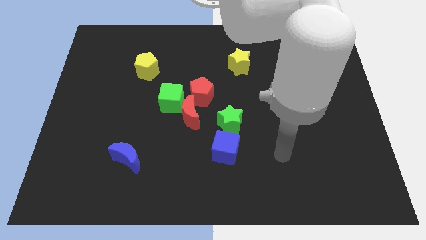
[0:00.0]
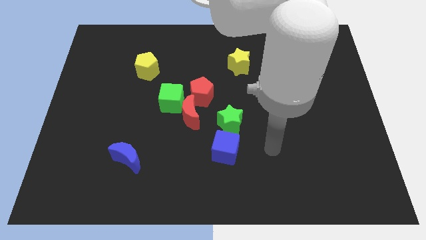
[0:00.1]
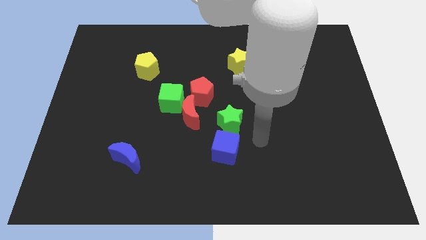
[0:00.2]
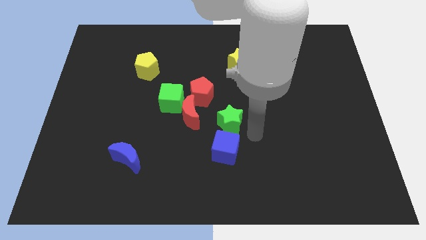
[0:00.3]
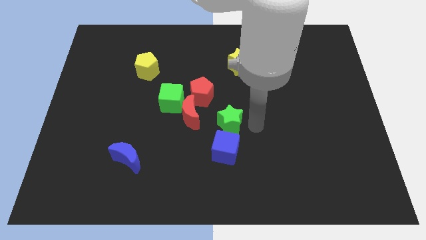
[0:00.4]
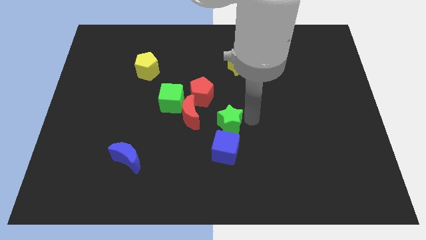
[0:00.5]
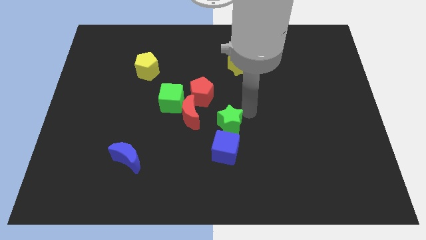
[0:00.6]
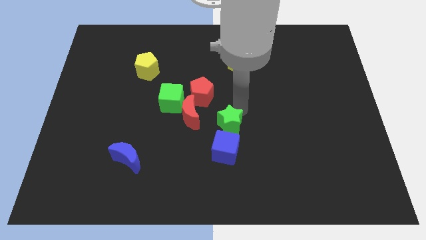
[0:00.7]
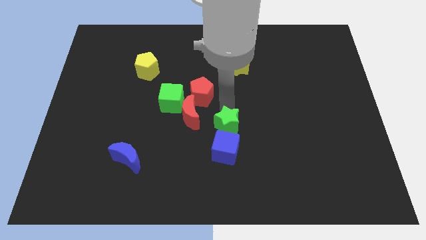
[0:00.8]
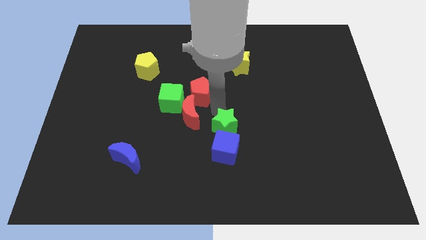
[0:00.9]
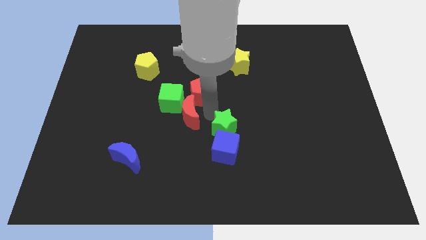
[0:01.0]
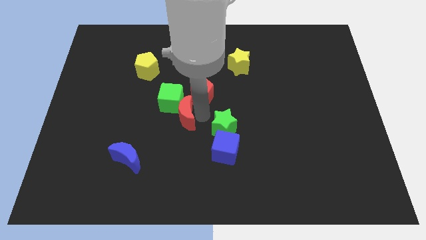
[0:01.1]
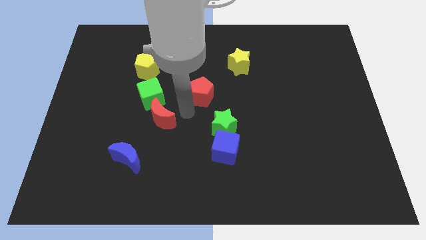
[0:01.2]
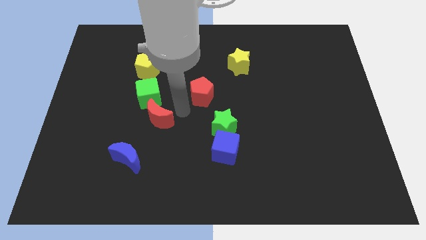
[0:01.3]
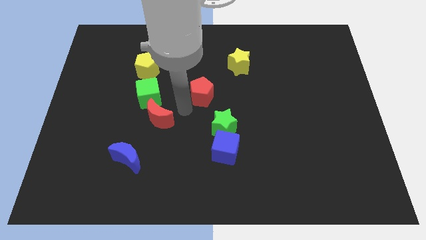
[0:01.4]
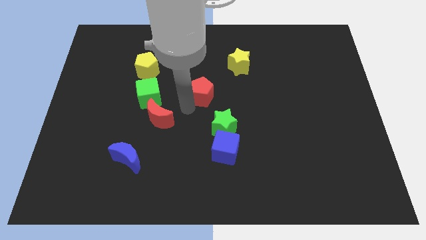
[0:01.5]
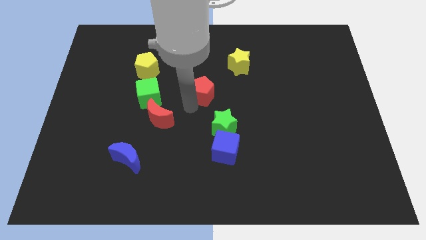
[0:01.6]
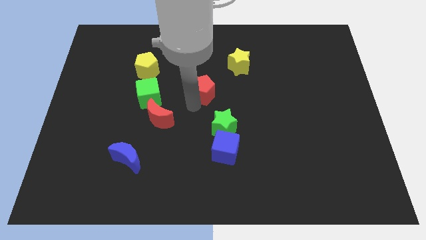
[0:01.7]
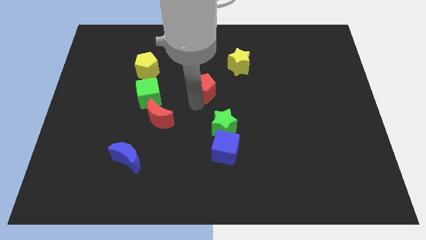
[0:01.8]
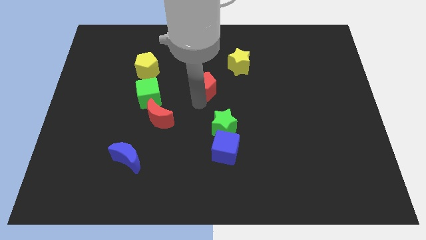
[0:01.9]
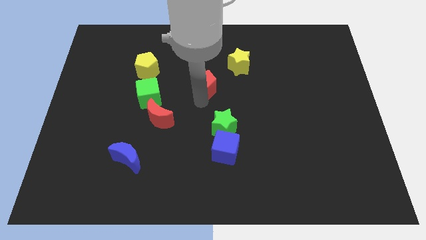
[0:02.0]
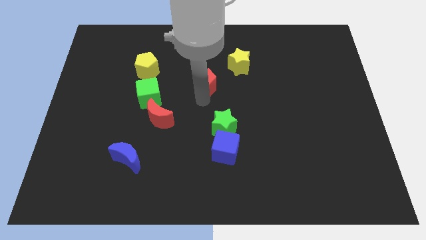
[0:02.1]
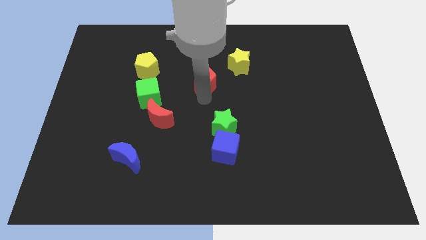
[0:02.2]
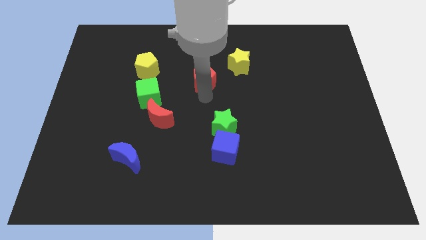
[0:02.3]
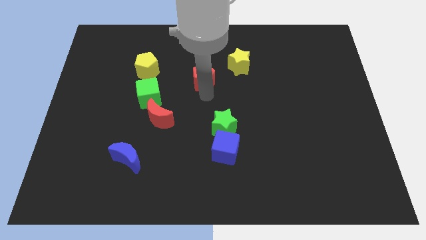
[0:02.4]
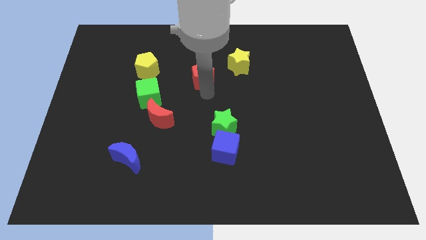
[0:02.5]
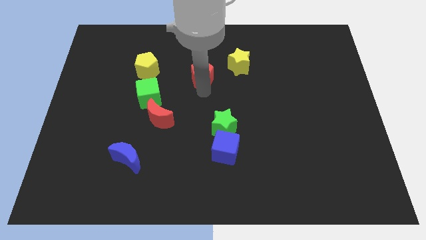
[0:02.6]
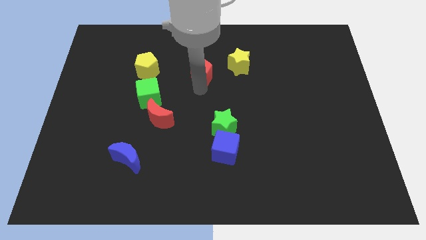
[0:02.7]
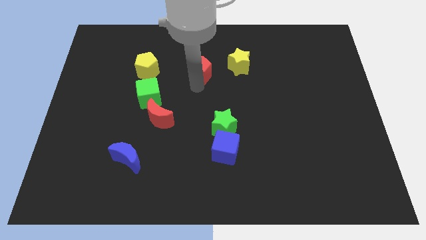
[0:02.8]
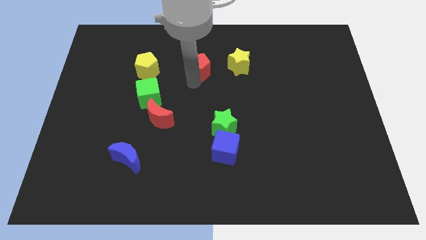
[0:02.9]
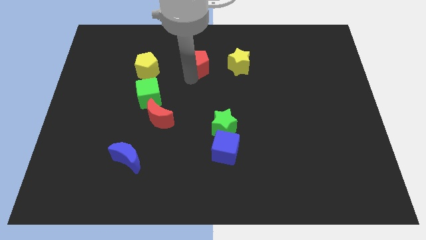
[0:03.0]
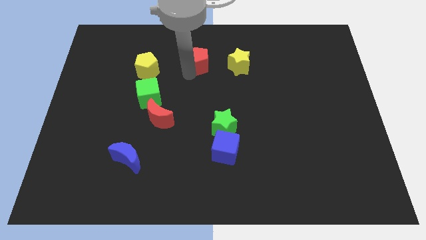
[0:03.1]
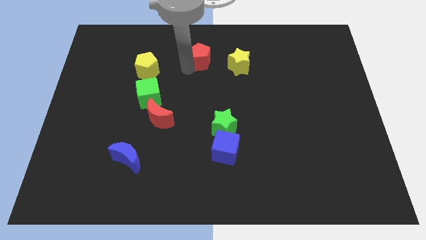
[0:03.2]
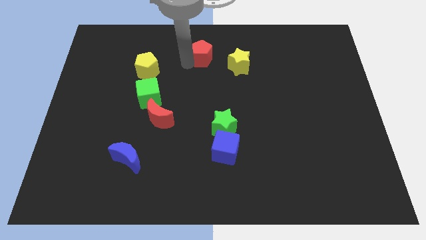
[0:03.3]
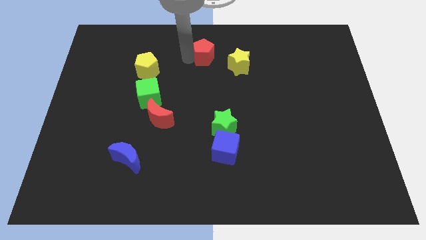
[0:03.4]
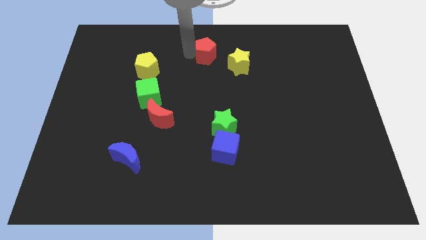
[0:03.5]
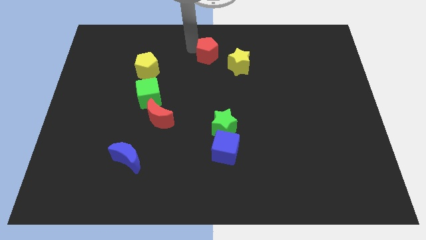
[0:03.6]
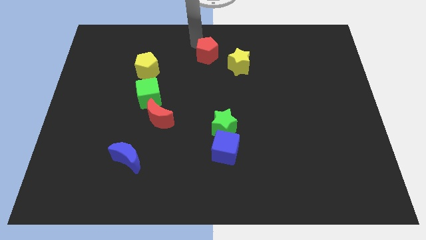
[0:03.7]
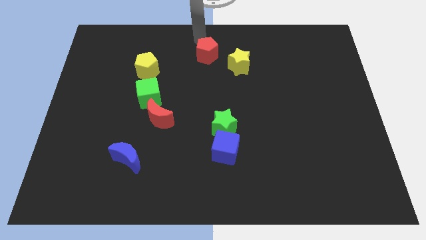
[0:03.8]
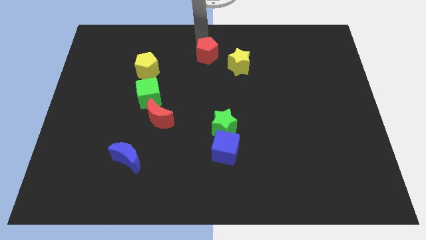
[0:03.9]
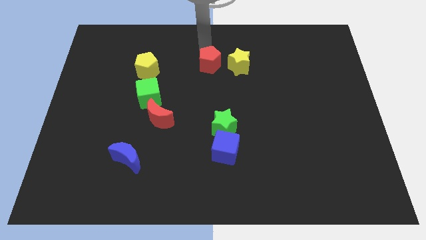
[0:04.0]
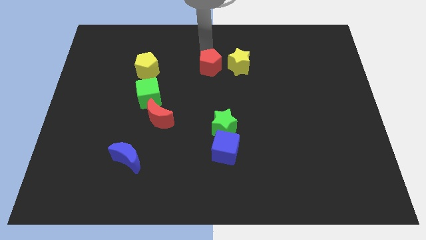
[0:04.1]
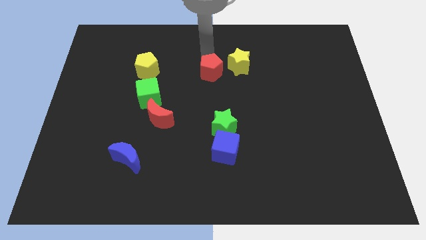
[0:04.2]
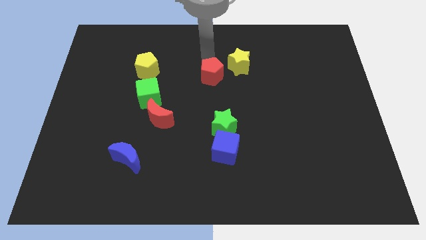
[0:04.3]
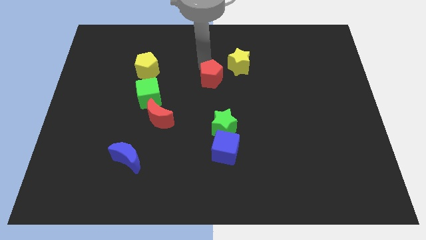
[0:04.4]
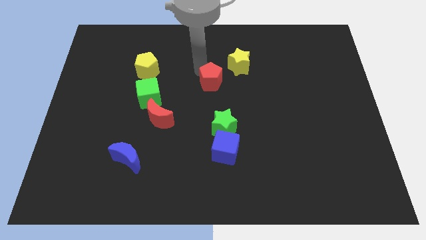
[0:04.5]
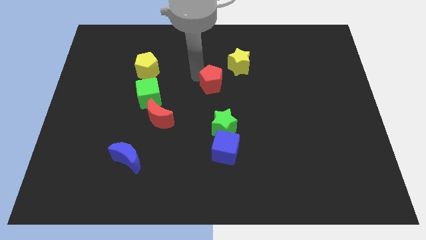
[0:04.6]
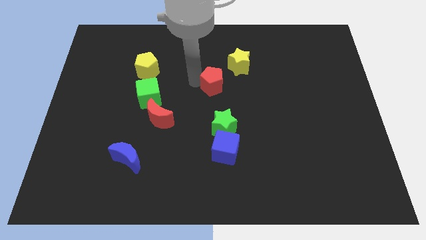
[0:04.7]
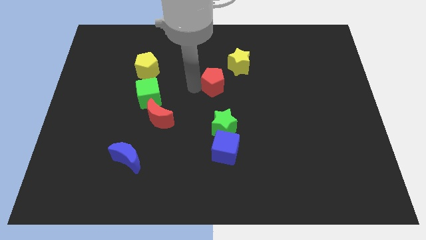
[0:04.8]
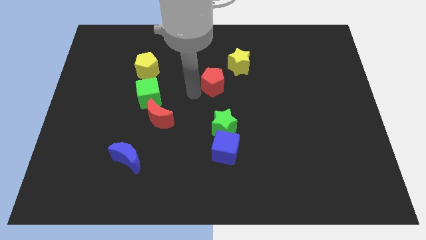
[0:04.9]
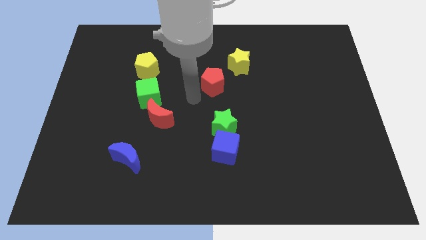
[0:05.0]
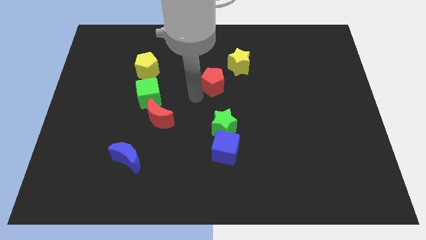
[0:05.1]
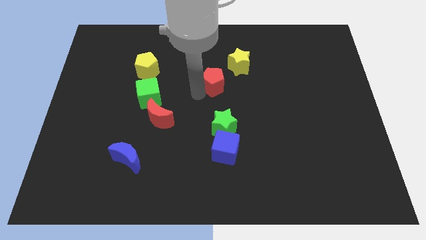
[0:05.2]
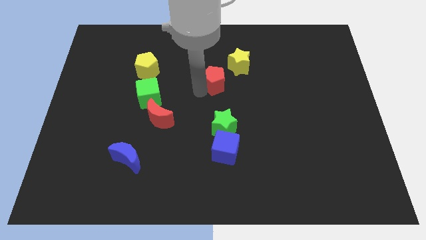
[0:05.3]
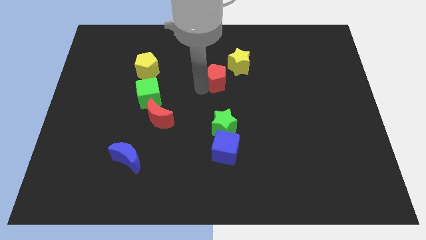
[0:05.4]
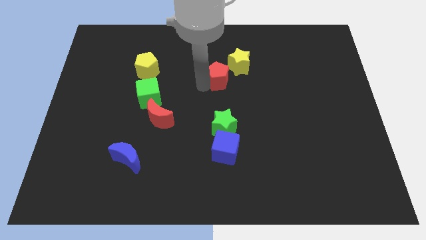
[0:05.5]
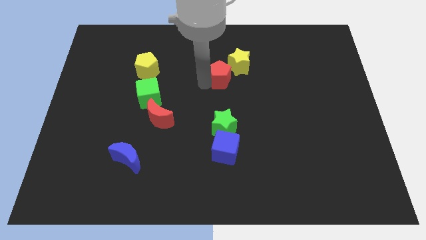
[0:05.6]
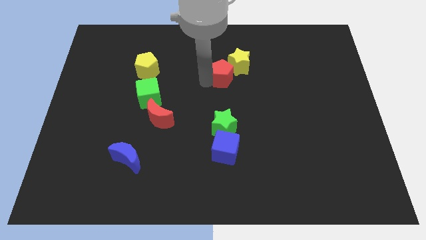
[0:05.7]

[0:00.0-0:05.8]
push the red pentagon towards the yellow star

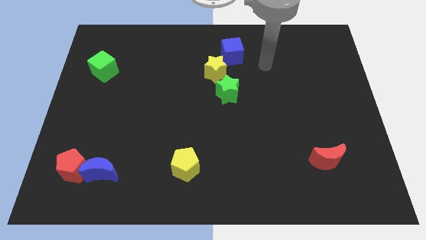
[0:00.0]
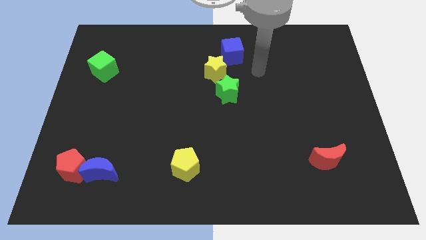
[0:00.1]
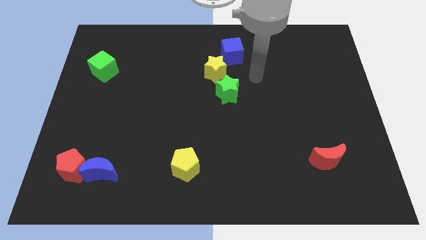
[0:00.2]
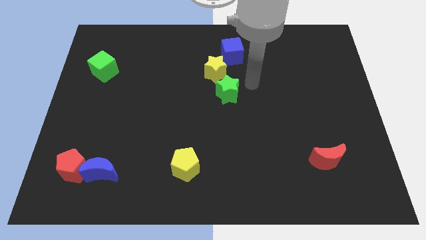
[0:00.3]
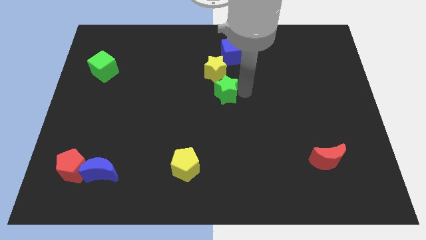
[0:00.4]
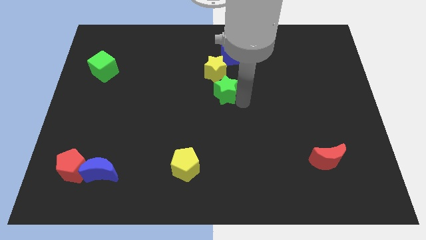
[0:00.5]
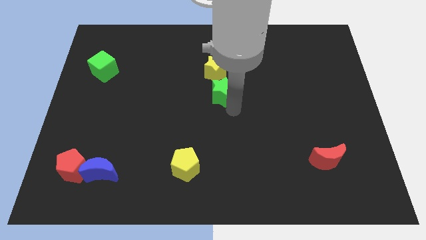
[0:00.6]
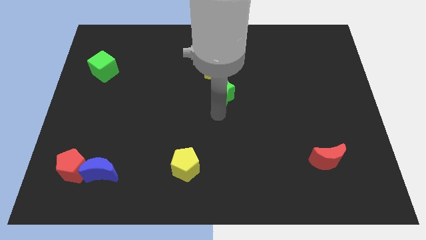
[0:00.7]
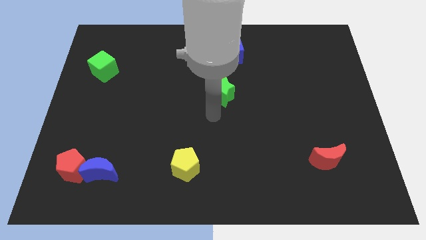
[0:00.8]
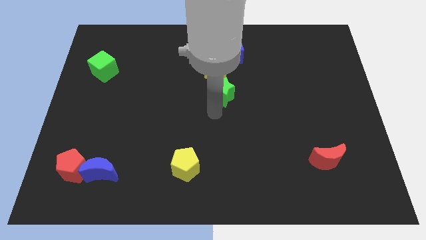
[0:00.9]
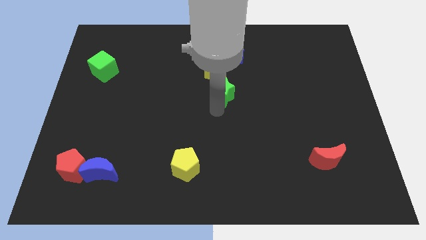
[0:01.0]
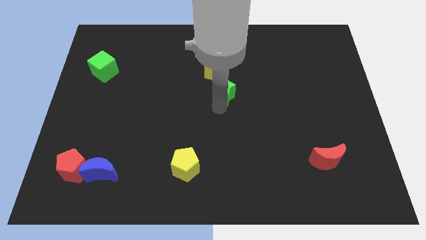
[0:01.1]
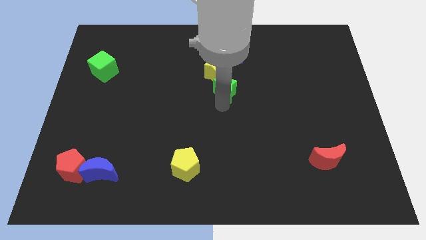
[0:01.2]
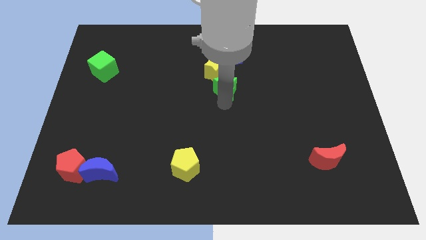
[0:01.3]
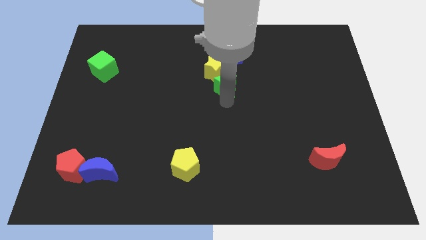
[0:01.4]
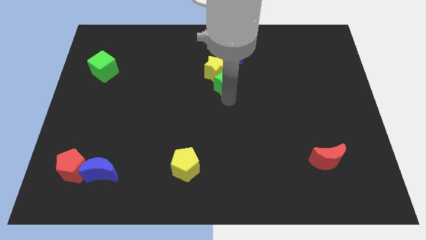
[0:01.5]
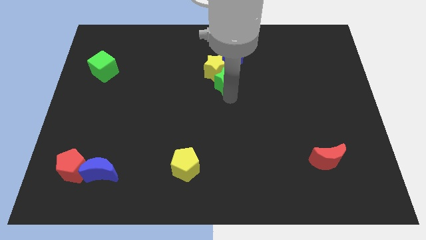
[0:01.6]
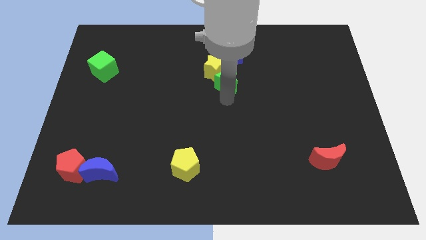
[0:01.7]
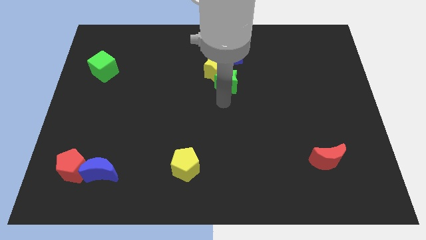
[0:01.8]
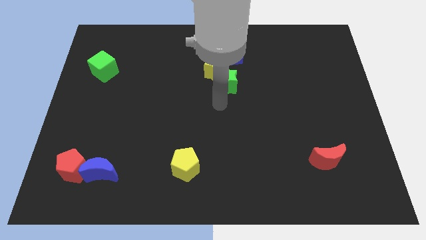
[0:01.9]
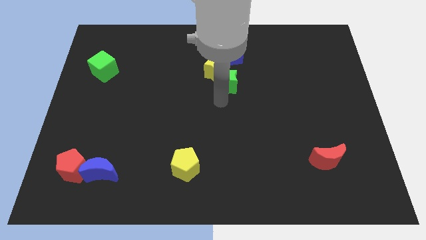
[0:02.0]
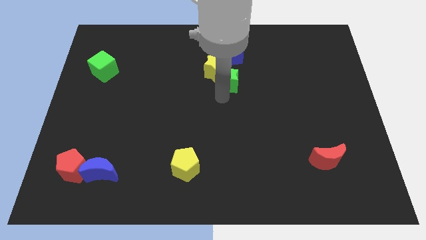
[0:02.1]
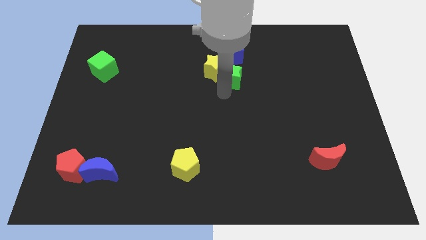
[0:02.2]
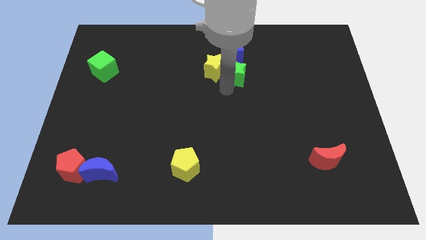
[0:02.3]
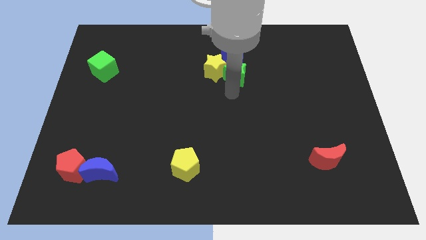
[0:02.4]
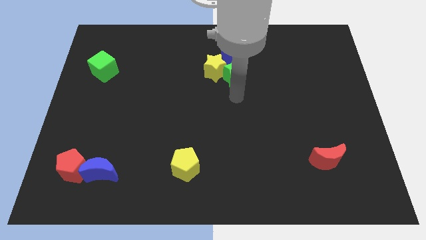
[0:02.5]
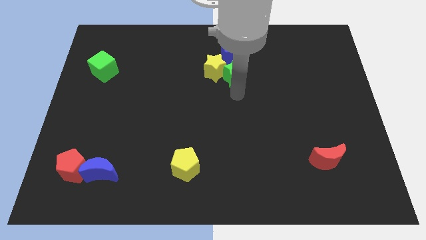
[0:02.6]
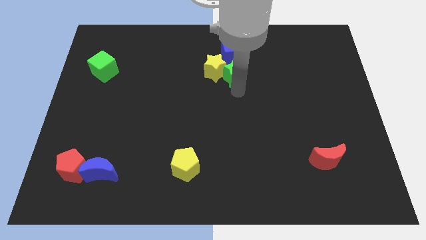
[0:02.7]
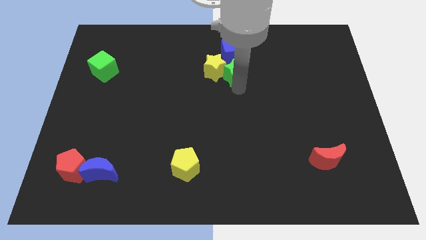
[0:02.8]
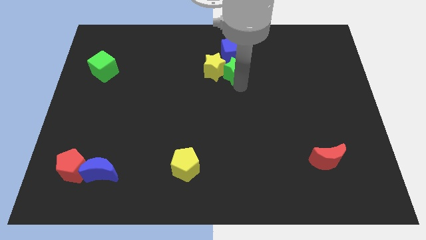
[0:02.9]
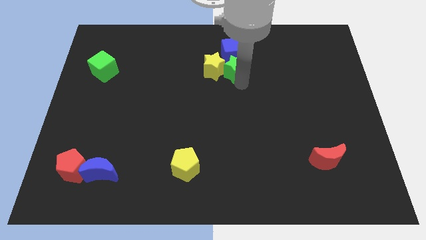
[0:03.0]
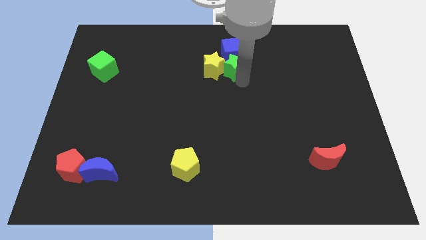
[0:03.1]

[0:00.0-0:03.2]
move the green star towards the blue cube
